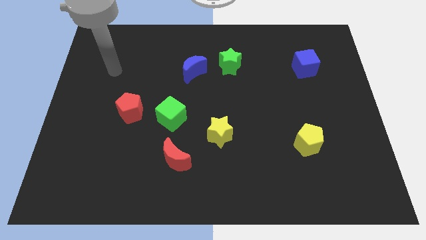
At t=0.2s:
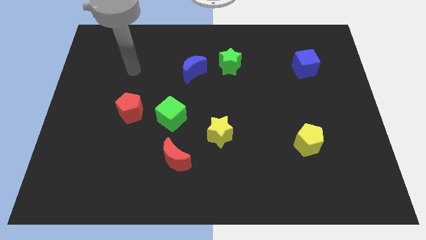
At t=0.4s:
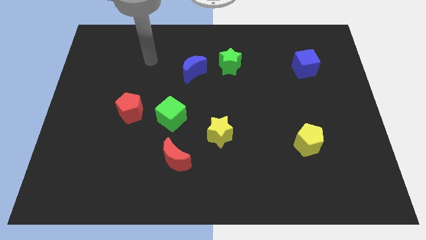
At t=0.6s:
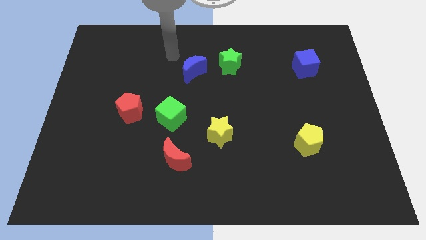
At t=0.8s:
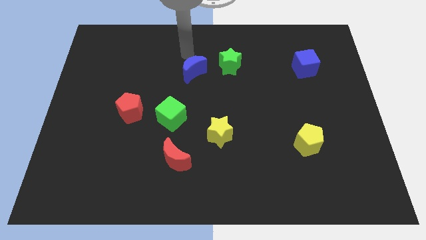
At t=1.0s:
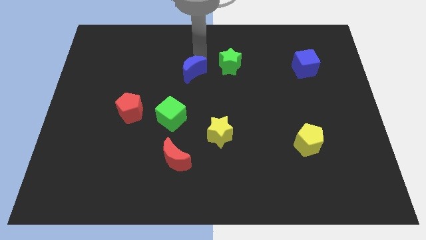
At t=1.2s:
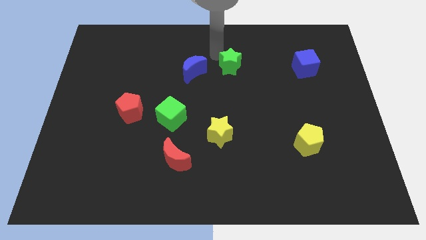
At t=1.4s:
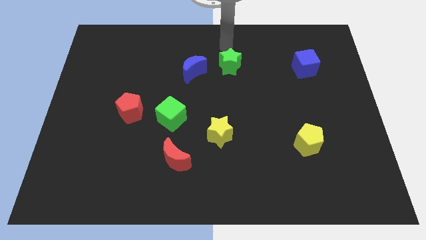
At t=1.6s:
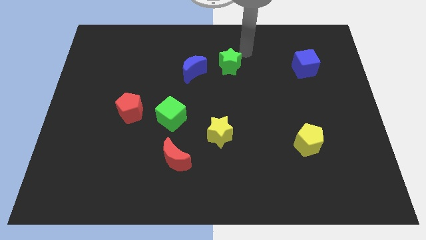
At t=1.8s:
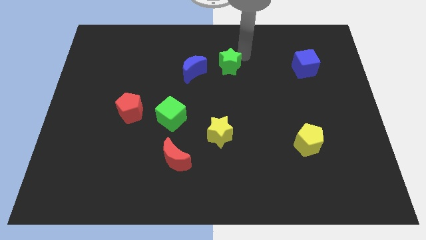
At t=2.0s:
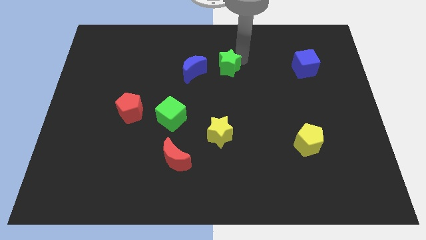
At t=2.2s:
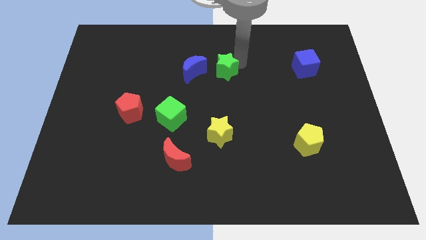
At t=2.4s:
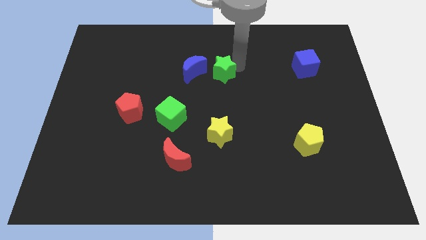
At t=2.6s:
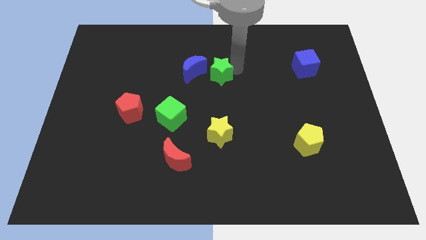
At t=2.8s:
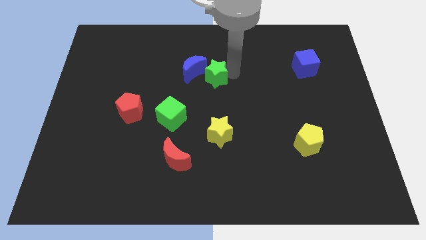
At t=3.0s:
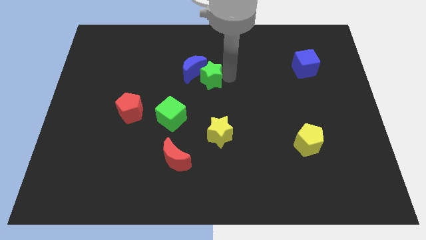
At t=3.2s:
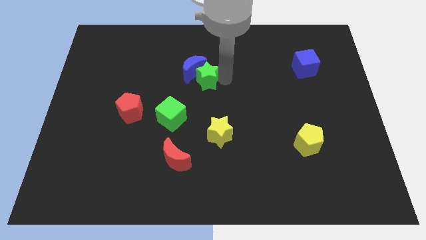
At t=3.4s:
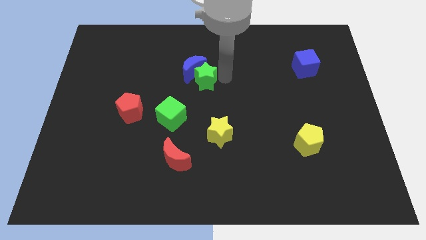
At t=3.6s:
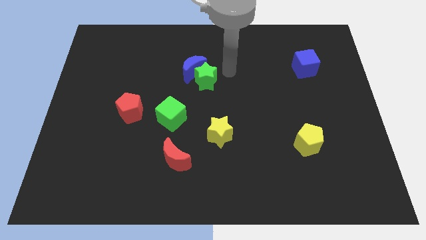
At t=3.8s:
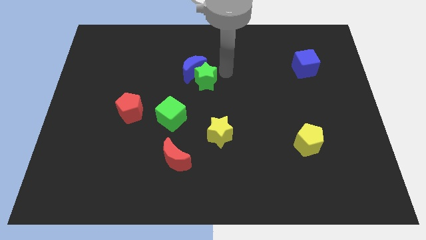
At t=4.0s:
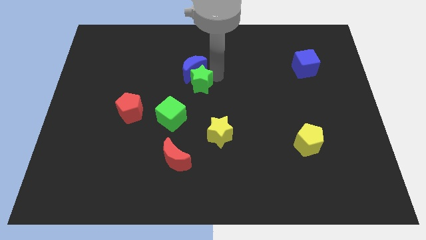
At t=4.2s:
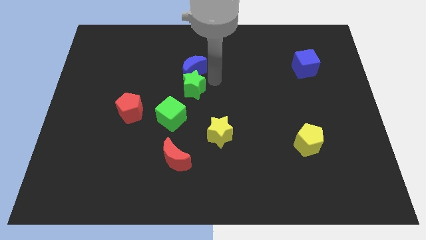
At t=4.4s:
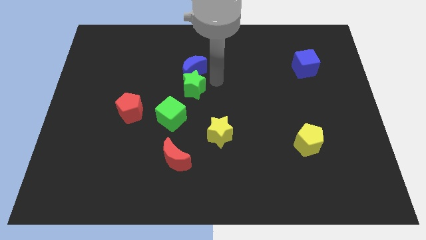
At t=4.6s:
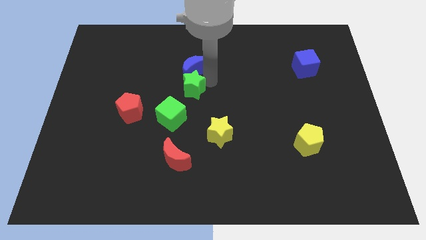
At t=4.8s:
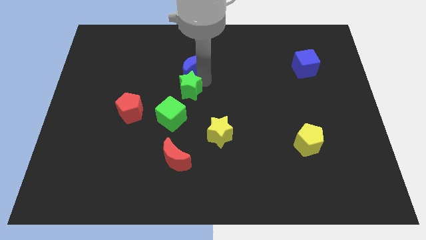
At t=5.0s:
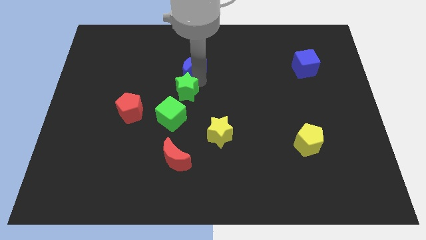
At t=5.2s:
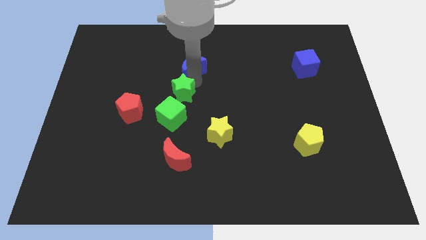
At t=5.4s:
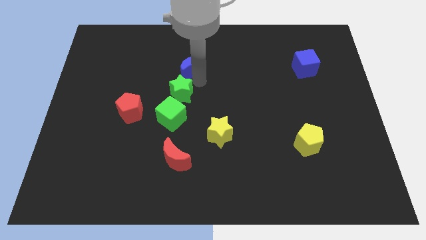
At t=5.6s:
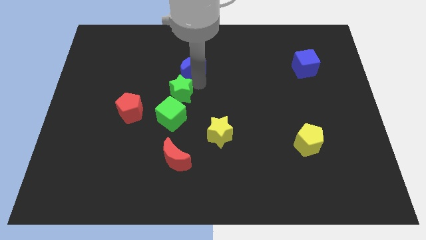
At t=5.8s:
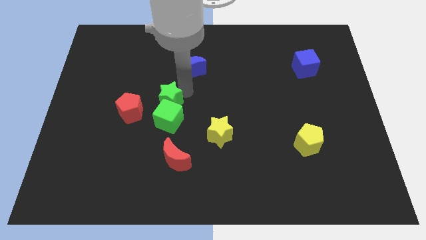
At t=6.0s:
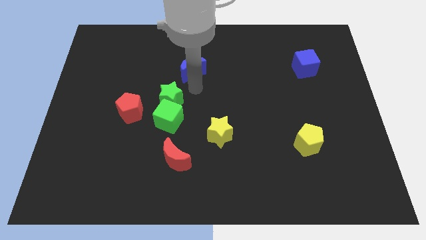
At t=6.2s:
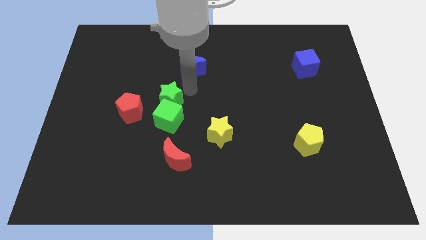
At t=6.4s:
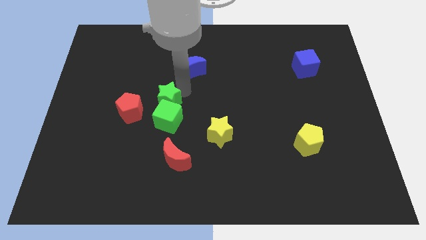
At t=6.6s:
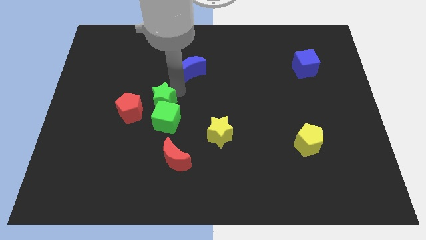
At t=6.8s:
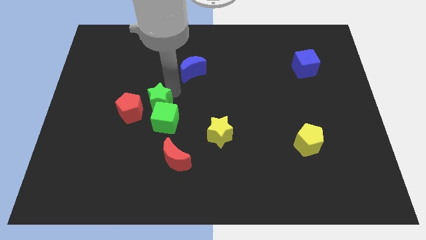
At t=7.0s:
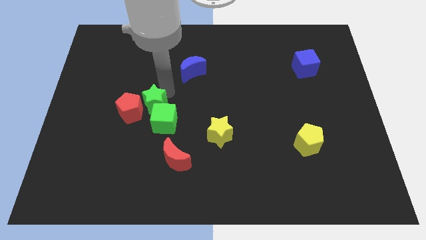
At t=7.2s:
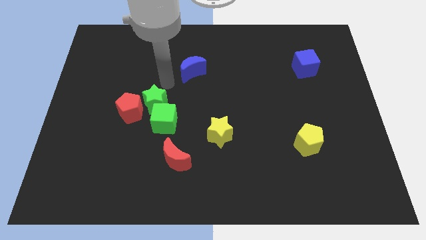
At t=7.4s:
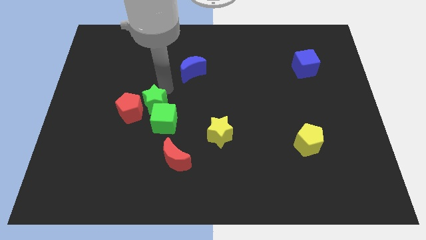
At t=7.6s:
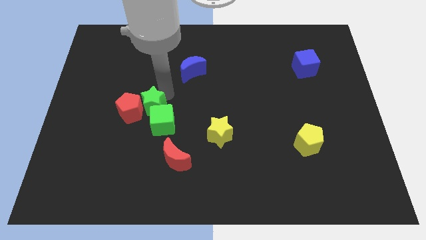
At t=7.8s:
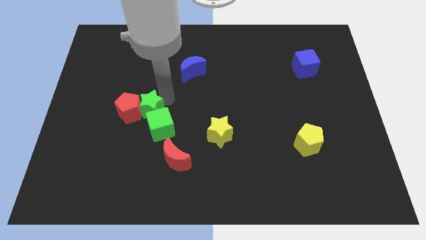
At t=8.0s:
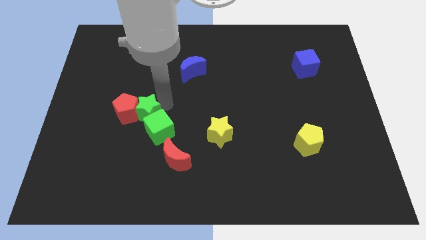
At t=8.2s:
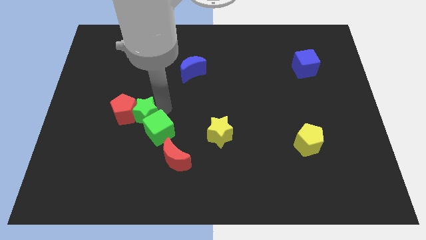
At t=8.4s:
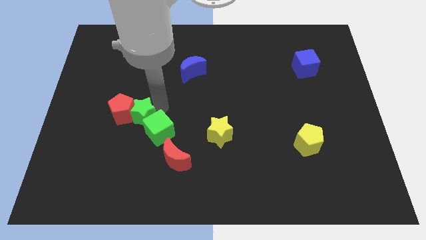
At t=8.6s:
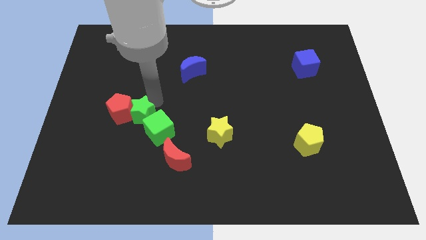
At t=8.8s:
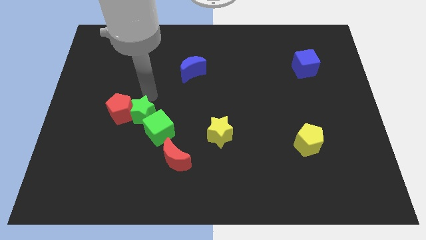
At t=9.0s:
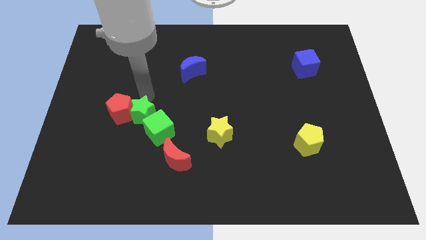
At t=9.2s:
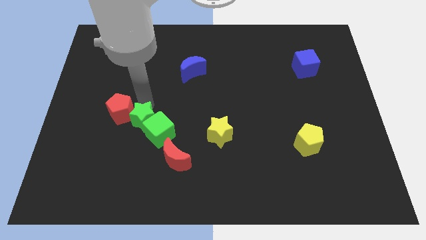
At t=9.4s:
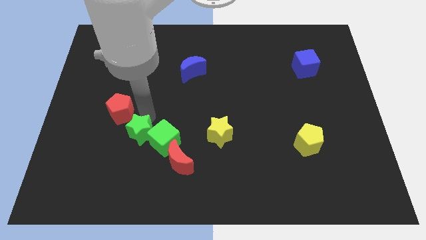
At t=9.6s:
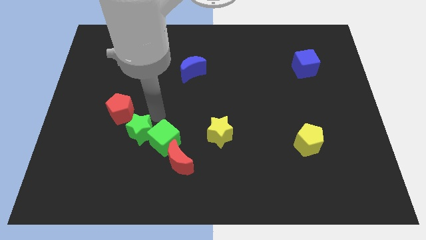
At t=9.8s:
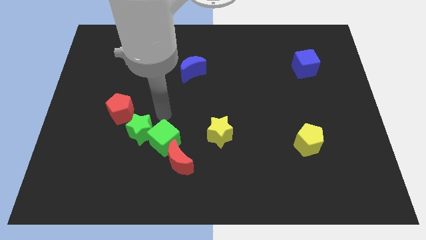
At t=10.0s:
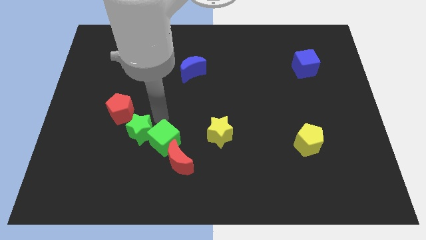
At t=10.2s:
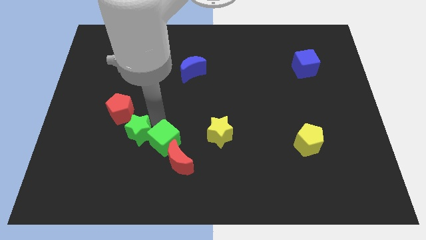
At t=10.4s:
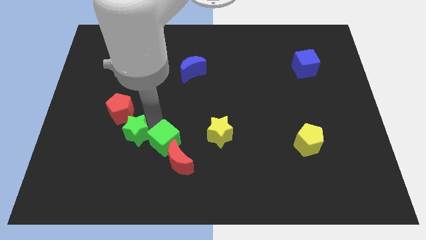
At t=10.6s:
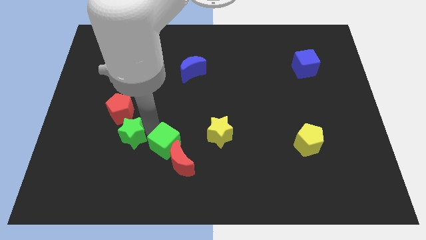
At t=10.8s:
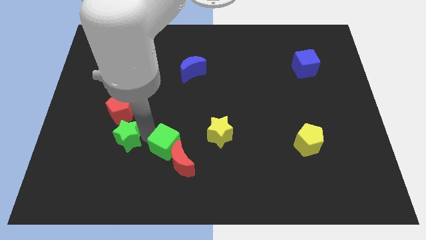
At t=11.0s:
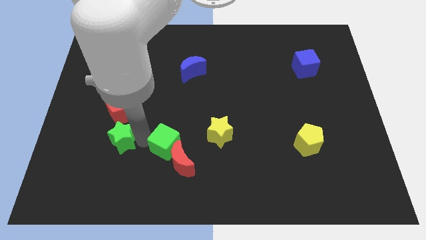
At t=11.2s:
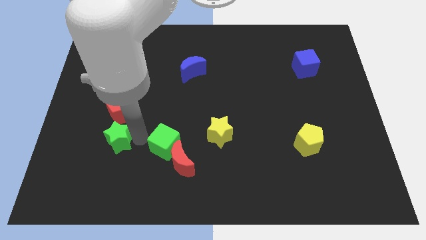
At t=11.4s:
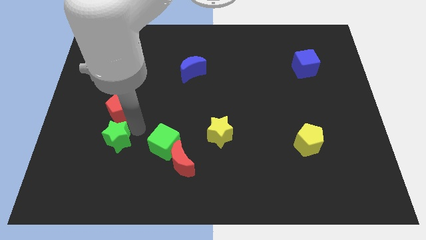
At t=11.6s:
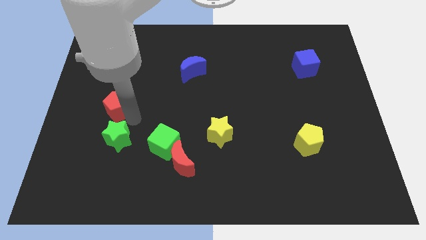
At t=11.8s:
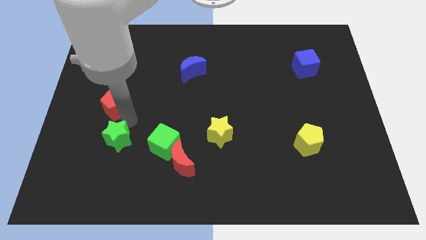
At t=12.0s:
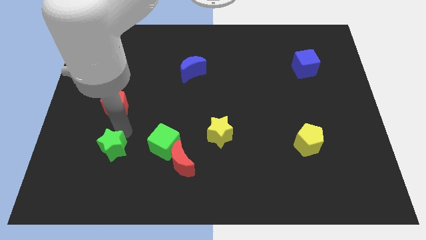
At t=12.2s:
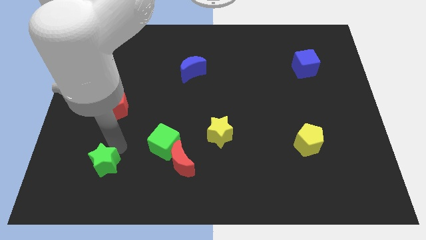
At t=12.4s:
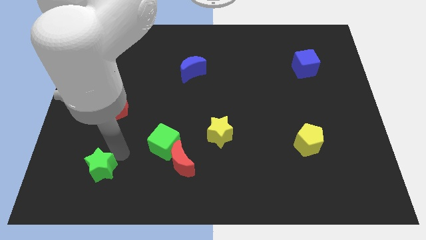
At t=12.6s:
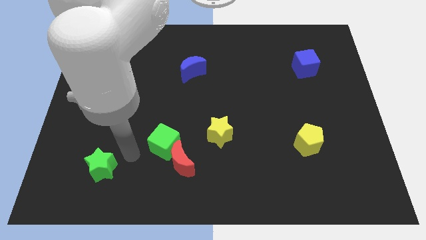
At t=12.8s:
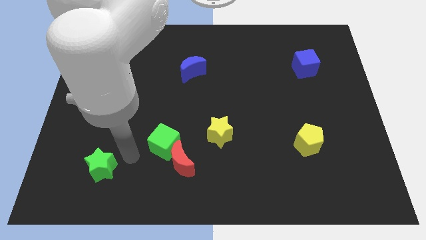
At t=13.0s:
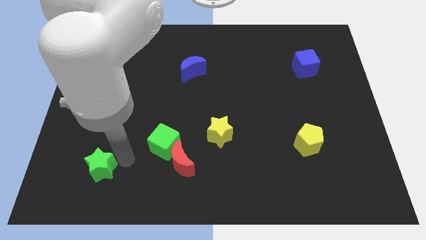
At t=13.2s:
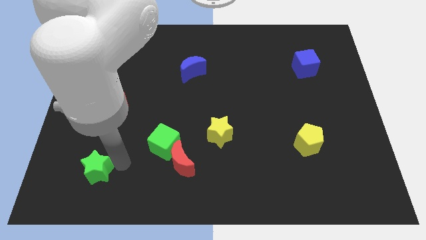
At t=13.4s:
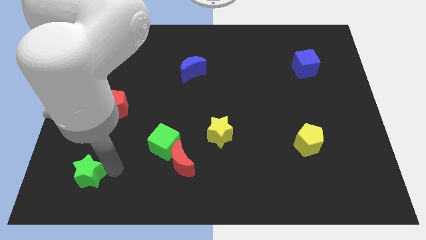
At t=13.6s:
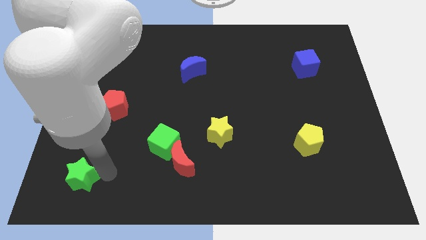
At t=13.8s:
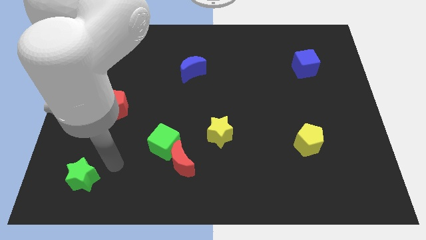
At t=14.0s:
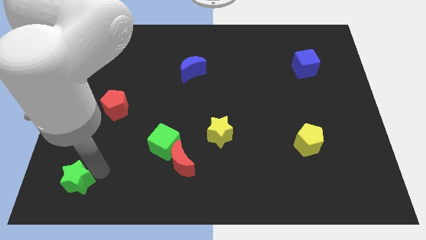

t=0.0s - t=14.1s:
push the green star to the lower left corner
